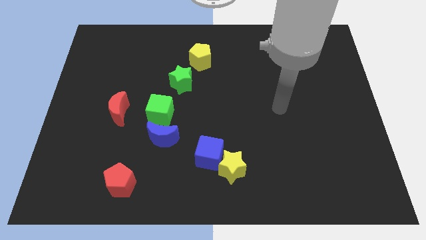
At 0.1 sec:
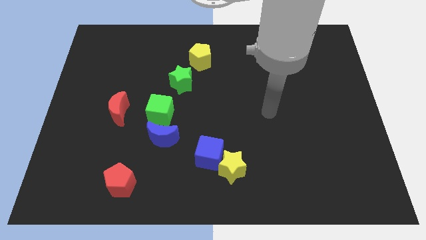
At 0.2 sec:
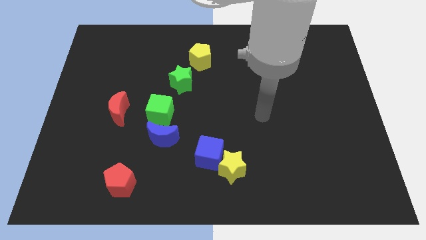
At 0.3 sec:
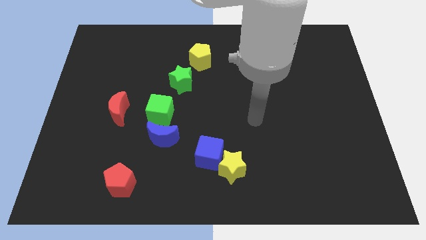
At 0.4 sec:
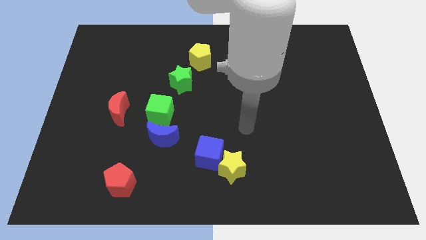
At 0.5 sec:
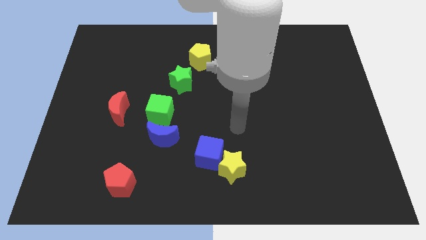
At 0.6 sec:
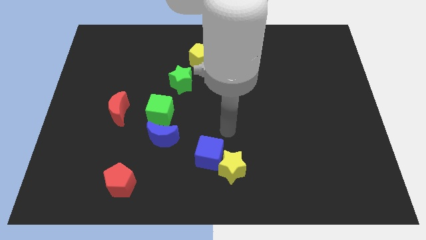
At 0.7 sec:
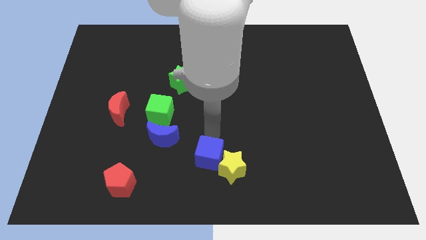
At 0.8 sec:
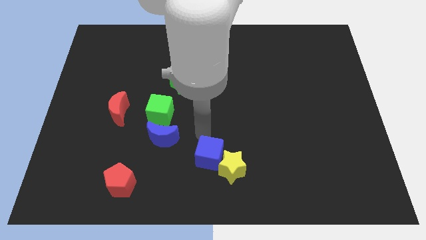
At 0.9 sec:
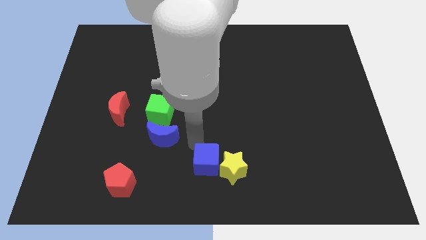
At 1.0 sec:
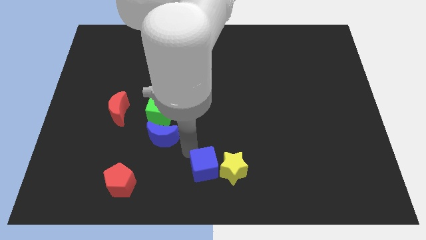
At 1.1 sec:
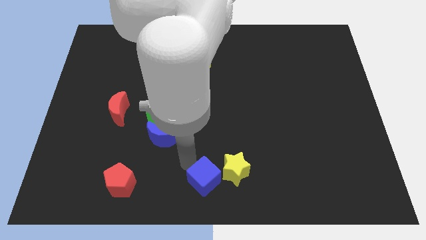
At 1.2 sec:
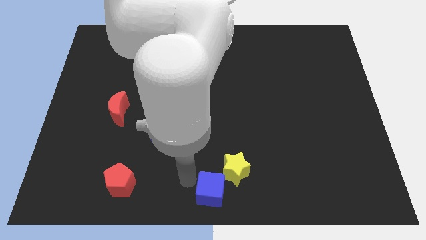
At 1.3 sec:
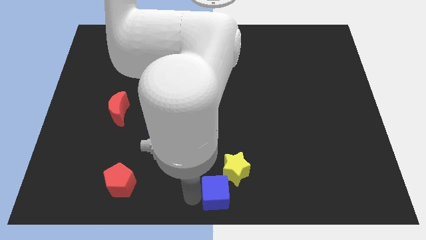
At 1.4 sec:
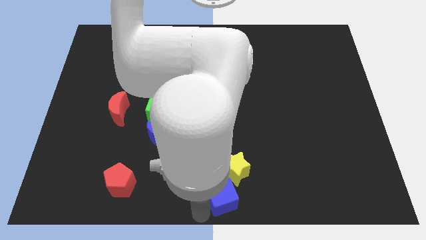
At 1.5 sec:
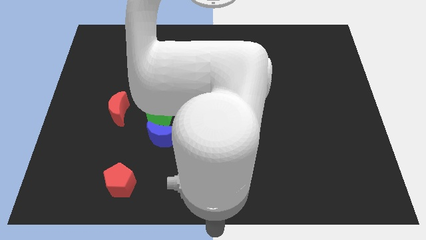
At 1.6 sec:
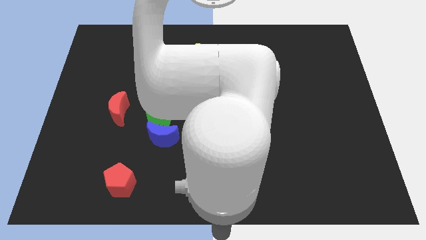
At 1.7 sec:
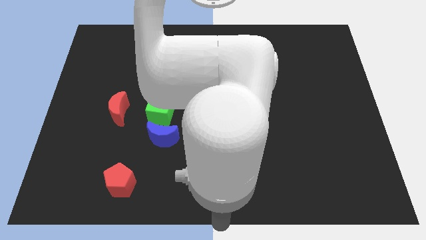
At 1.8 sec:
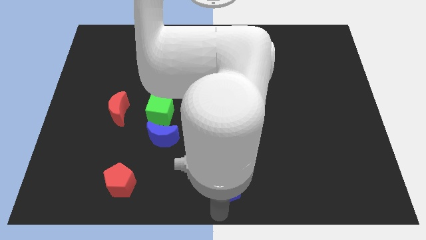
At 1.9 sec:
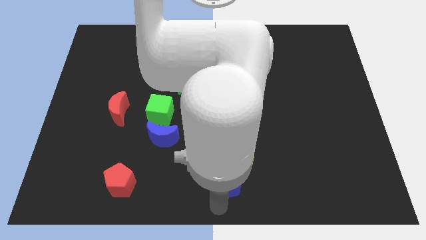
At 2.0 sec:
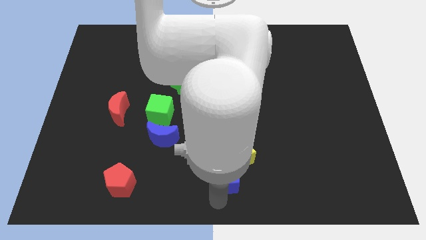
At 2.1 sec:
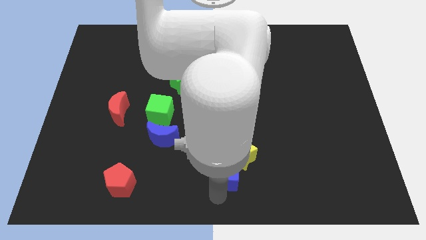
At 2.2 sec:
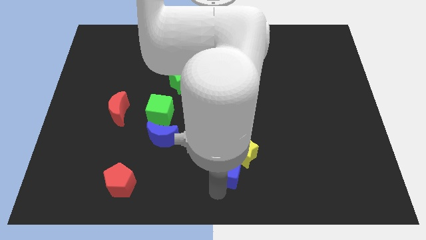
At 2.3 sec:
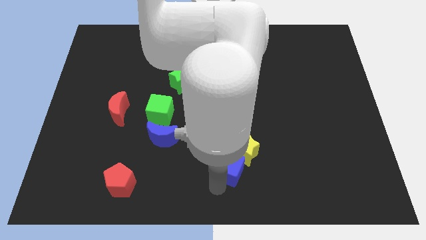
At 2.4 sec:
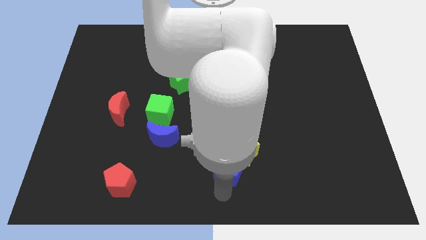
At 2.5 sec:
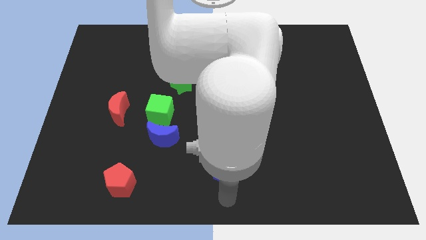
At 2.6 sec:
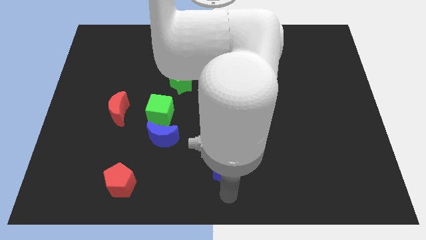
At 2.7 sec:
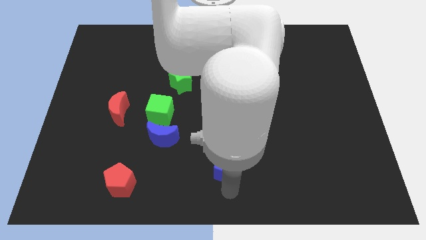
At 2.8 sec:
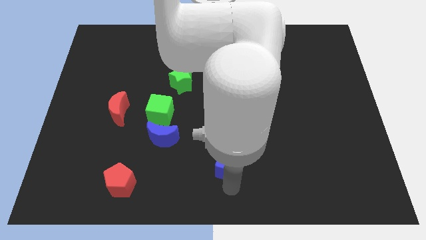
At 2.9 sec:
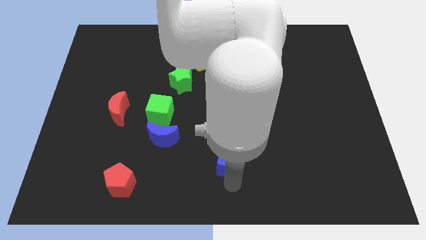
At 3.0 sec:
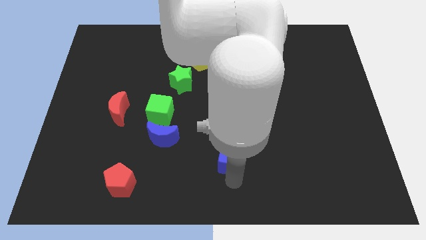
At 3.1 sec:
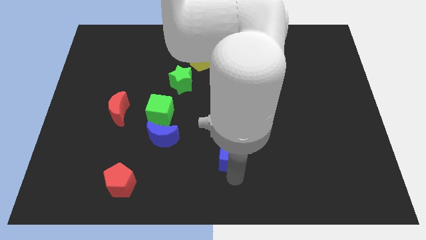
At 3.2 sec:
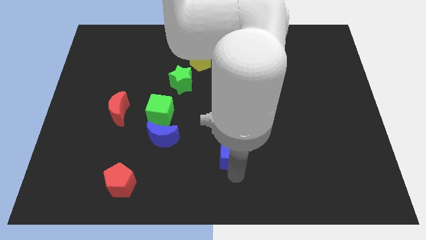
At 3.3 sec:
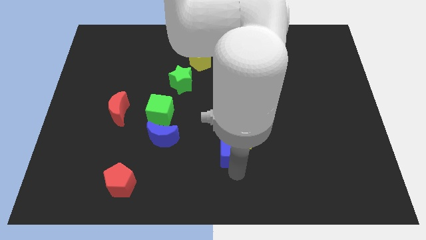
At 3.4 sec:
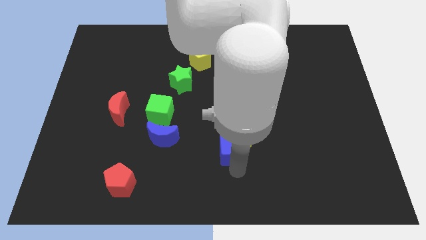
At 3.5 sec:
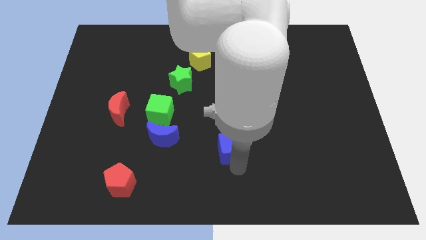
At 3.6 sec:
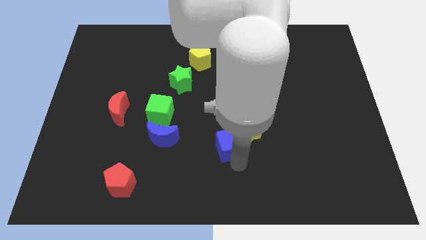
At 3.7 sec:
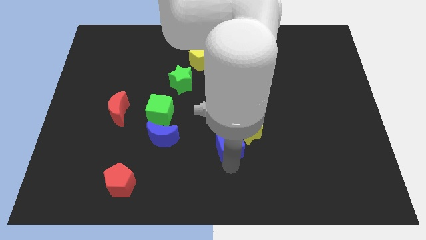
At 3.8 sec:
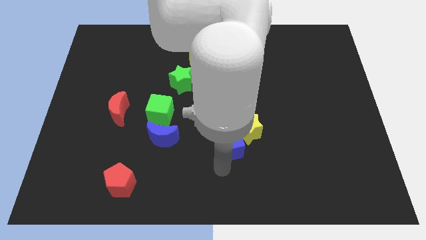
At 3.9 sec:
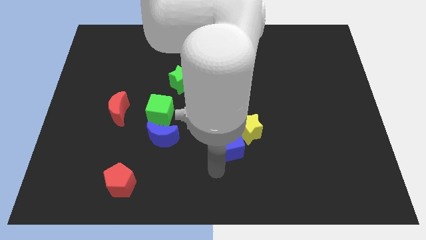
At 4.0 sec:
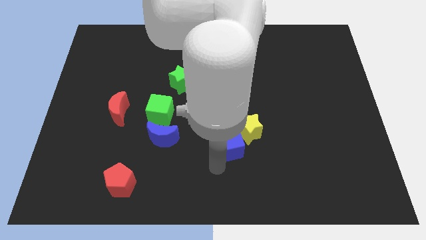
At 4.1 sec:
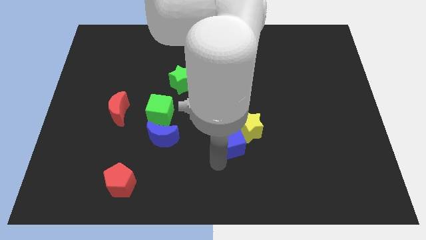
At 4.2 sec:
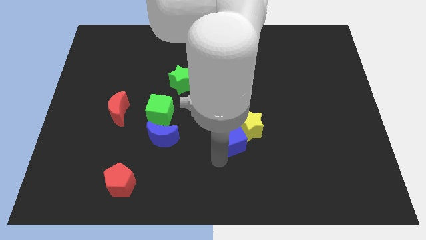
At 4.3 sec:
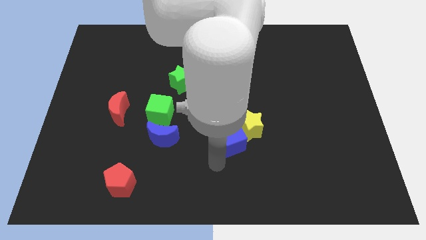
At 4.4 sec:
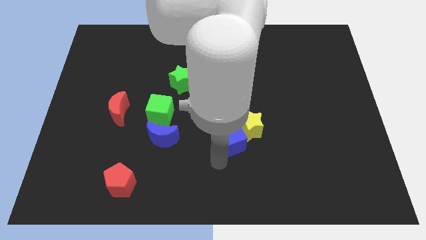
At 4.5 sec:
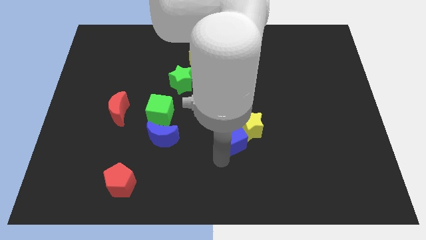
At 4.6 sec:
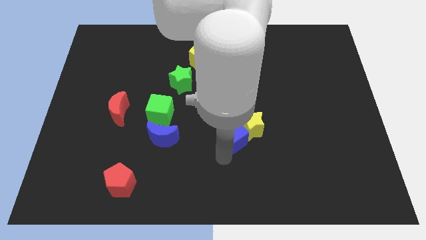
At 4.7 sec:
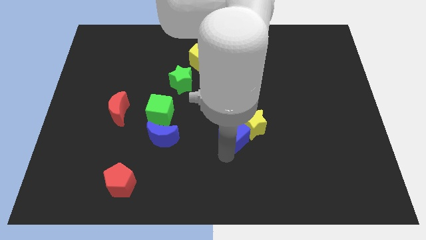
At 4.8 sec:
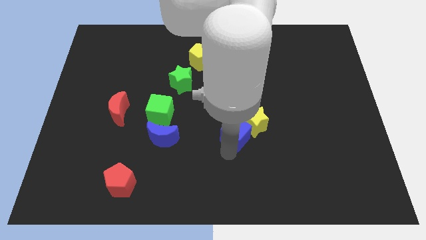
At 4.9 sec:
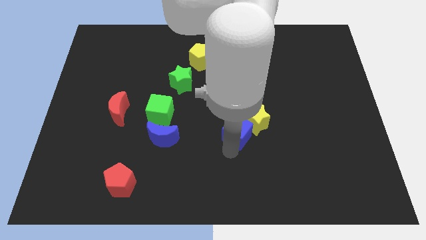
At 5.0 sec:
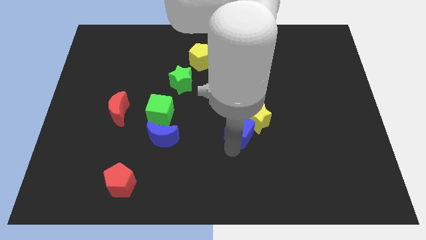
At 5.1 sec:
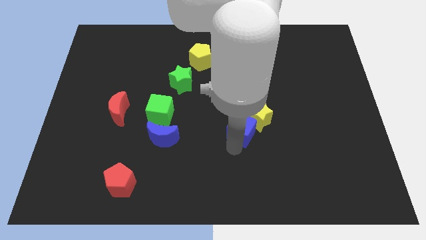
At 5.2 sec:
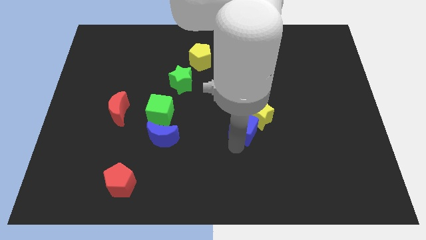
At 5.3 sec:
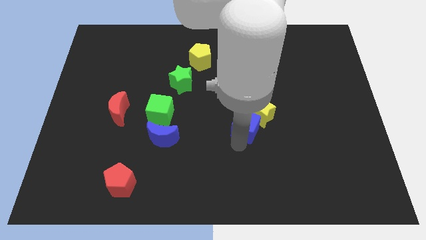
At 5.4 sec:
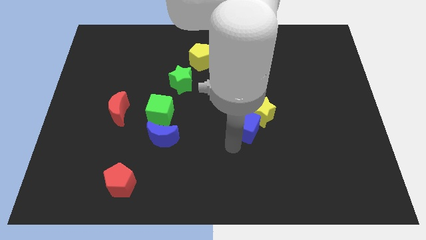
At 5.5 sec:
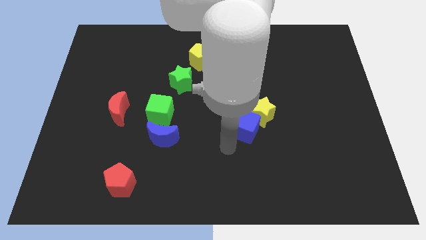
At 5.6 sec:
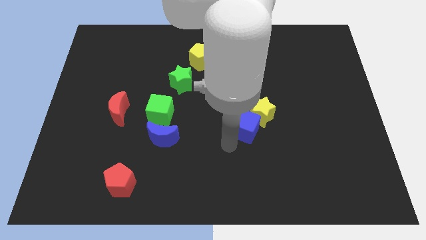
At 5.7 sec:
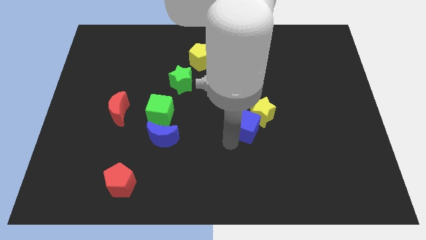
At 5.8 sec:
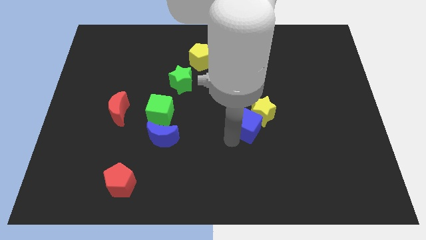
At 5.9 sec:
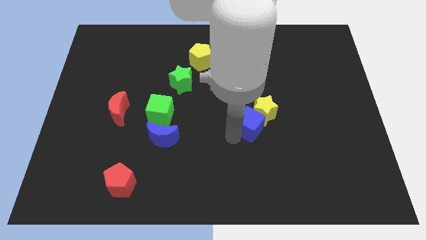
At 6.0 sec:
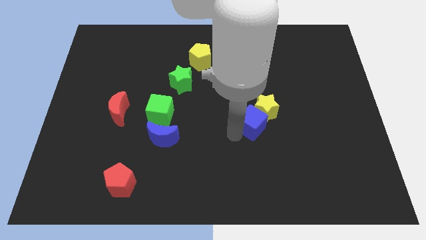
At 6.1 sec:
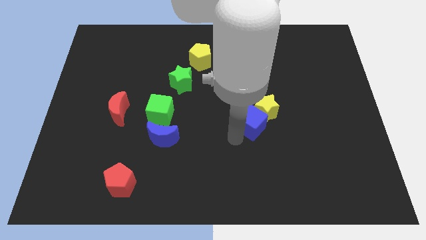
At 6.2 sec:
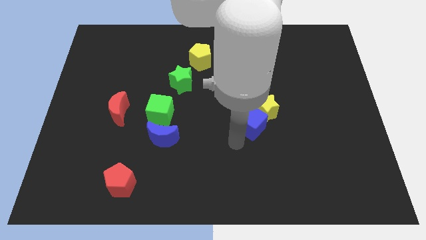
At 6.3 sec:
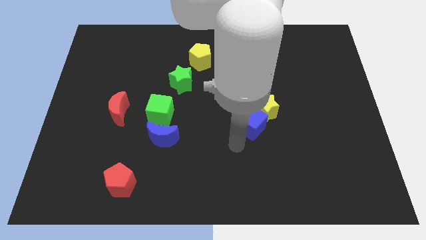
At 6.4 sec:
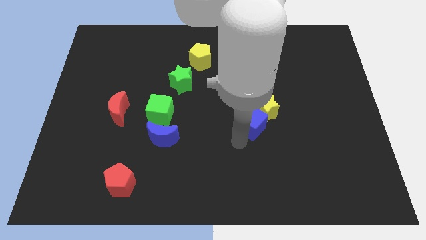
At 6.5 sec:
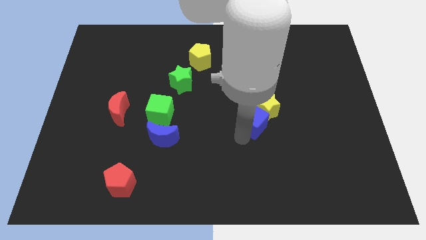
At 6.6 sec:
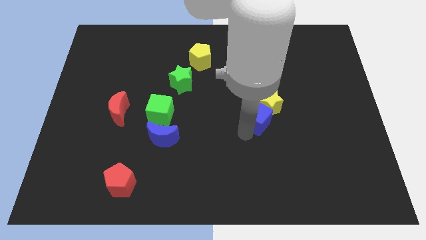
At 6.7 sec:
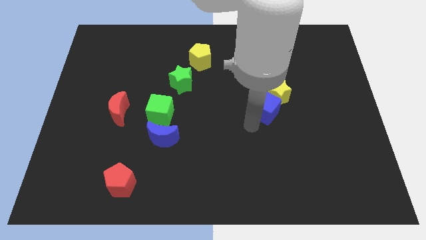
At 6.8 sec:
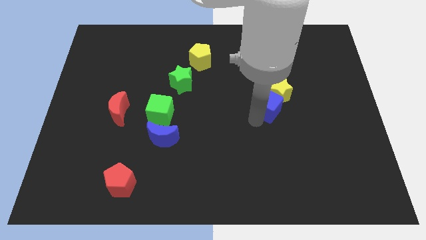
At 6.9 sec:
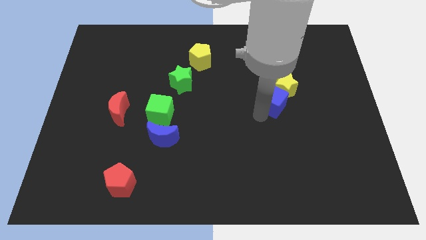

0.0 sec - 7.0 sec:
push the blue cube up and then right

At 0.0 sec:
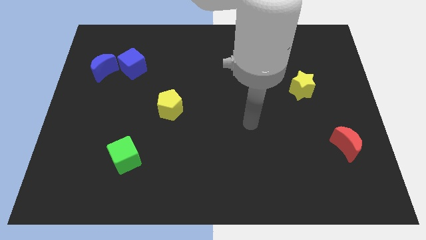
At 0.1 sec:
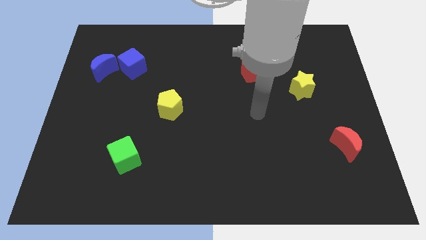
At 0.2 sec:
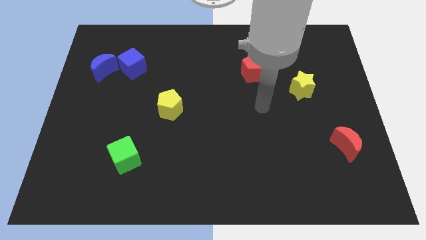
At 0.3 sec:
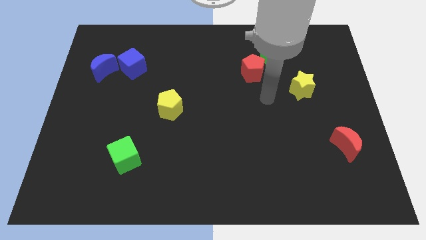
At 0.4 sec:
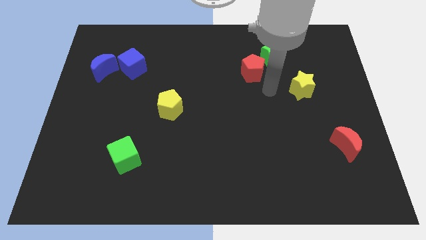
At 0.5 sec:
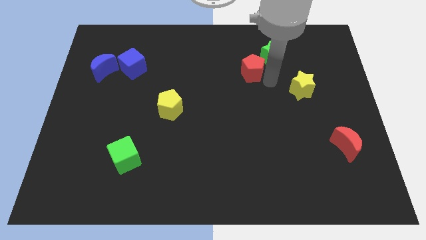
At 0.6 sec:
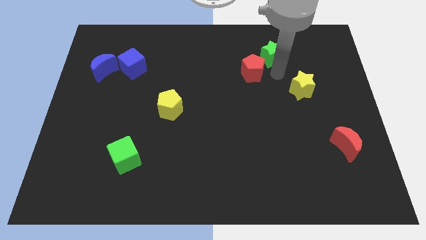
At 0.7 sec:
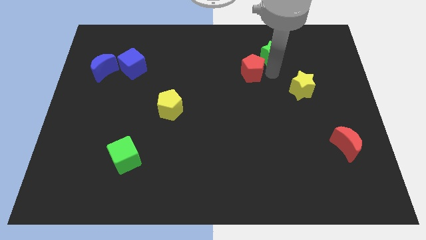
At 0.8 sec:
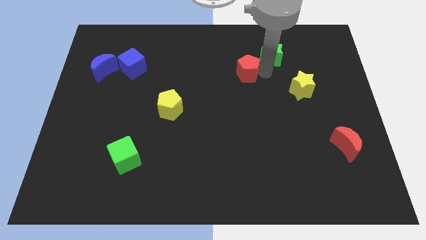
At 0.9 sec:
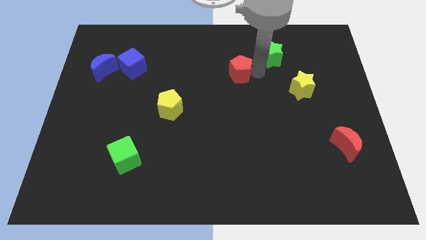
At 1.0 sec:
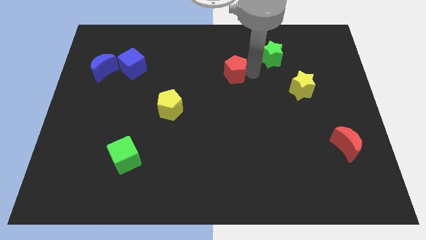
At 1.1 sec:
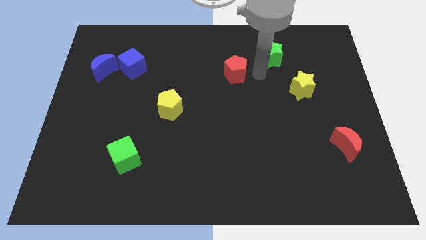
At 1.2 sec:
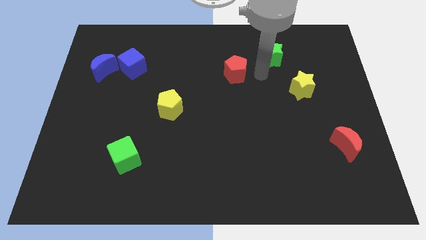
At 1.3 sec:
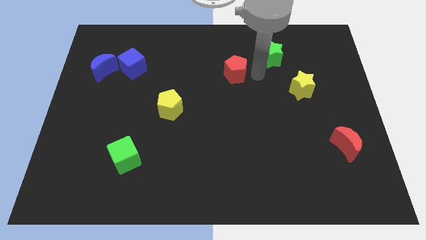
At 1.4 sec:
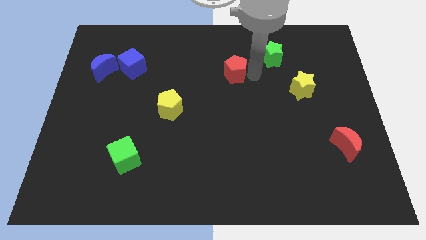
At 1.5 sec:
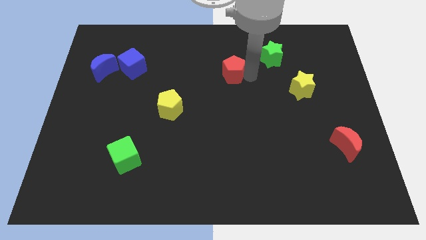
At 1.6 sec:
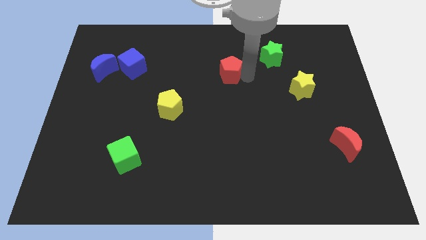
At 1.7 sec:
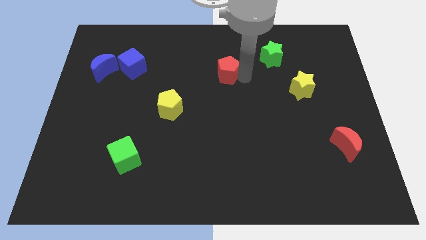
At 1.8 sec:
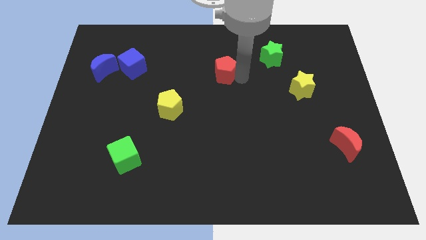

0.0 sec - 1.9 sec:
slide the red pentagon somewhat left
